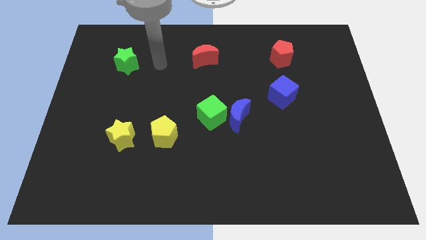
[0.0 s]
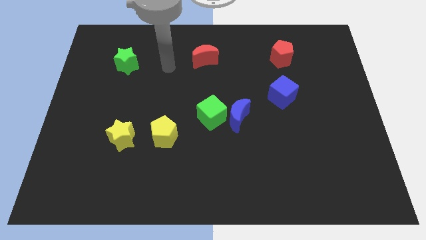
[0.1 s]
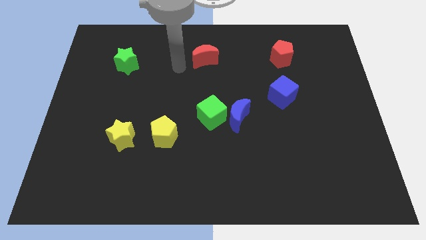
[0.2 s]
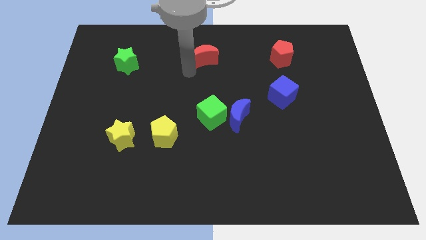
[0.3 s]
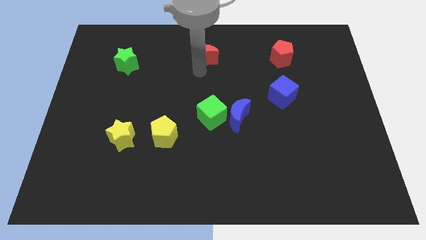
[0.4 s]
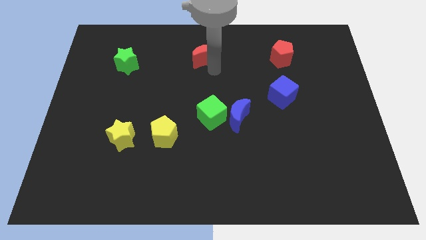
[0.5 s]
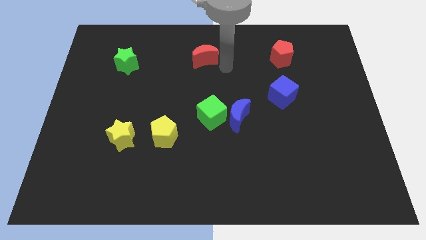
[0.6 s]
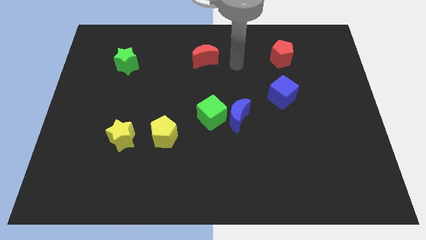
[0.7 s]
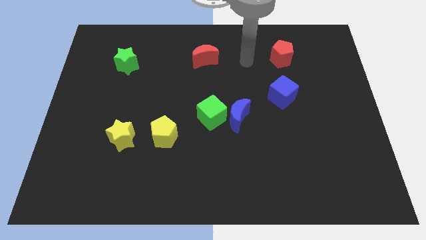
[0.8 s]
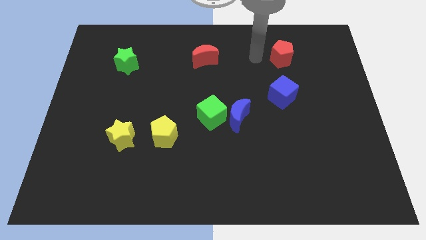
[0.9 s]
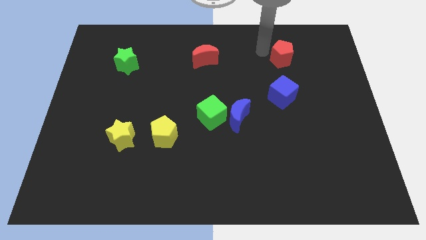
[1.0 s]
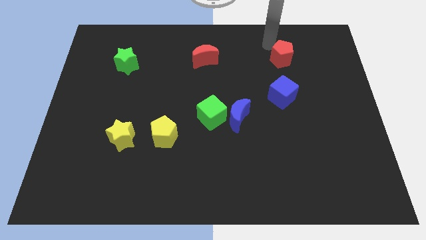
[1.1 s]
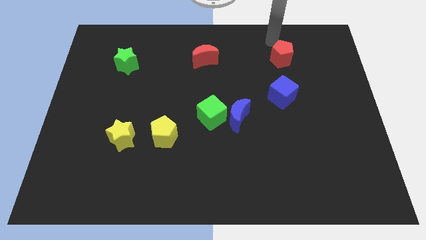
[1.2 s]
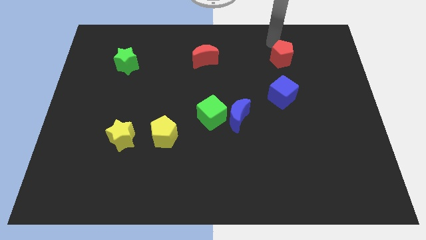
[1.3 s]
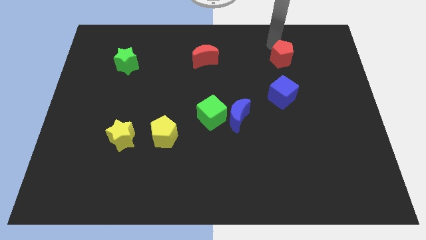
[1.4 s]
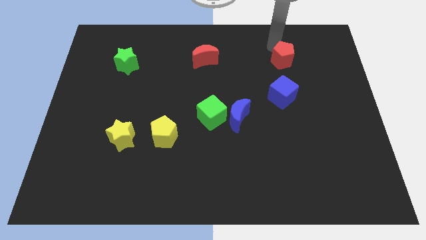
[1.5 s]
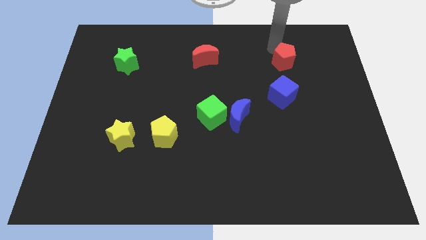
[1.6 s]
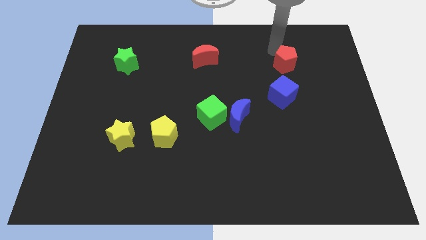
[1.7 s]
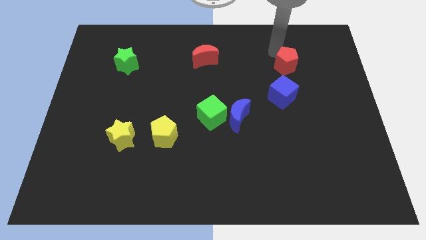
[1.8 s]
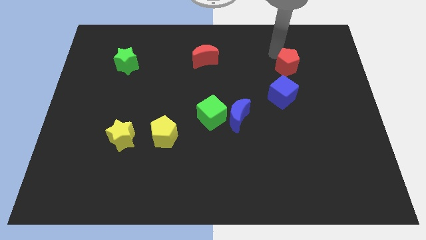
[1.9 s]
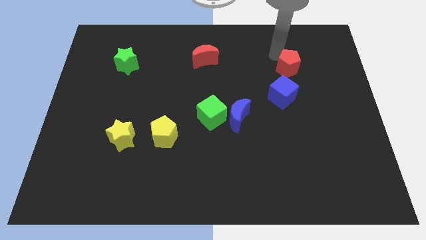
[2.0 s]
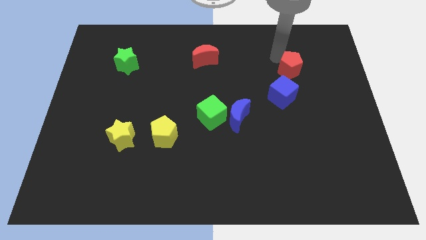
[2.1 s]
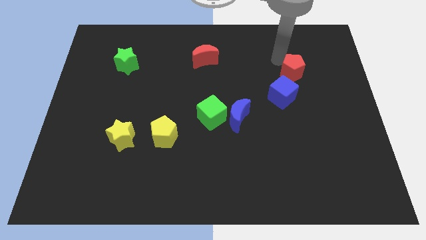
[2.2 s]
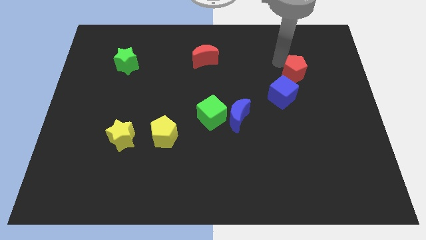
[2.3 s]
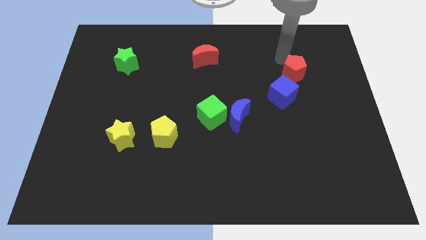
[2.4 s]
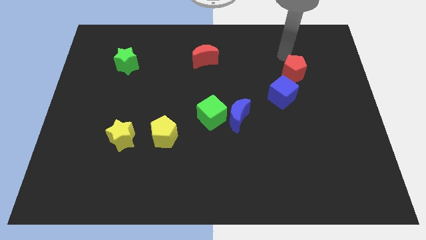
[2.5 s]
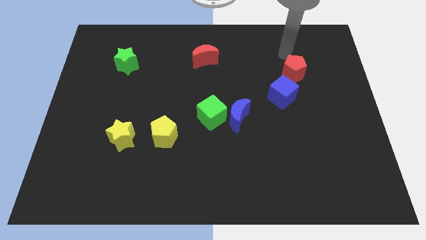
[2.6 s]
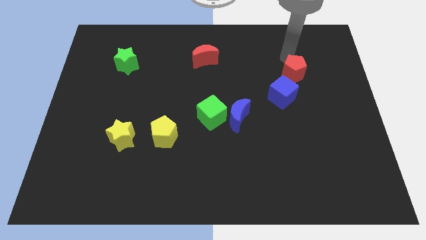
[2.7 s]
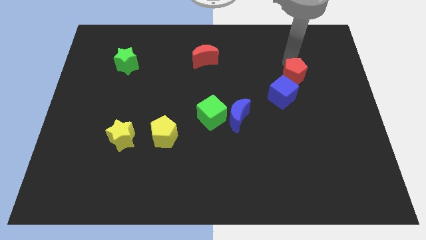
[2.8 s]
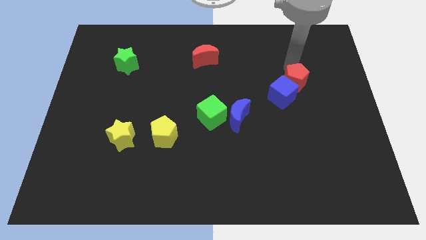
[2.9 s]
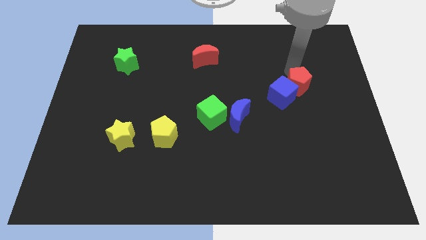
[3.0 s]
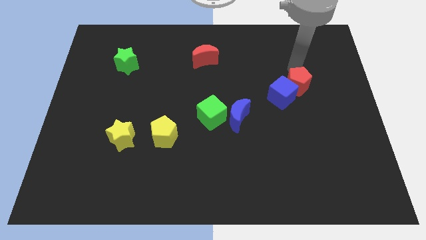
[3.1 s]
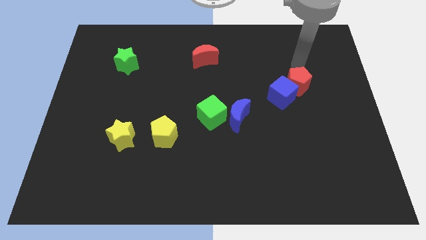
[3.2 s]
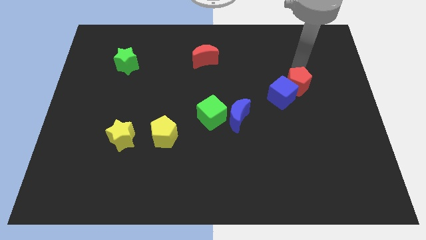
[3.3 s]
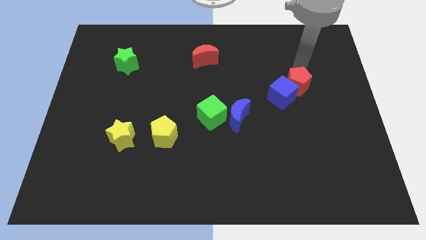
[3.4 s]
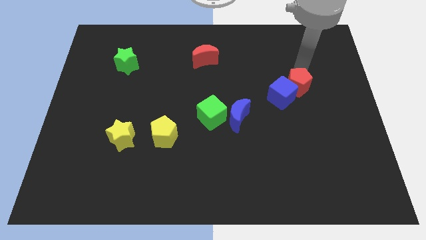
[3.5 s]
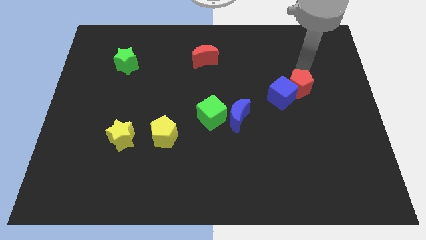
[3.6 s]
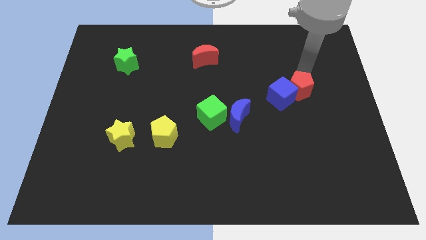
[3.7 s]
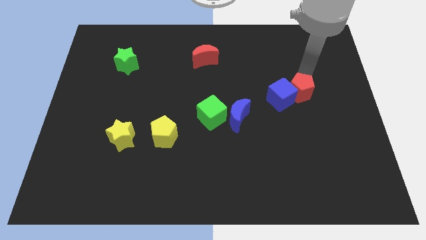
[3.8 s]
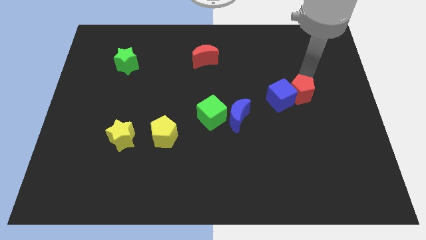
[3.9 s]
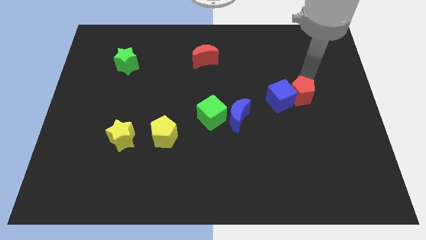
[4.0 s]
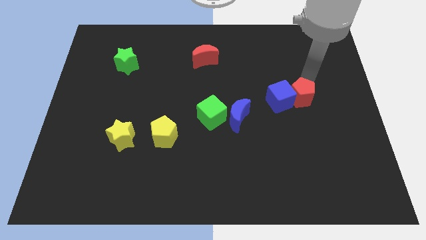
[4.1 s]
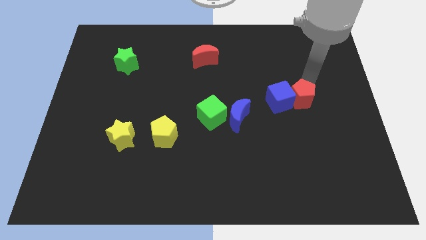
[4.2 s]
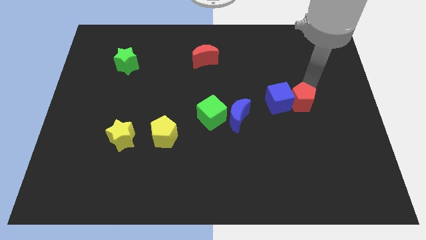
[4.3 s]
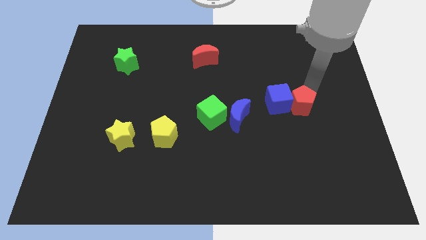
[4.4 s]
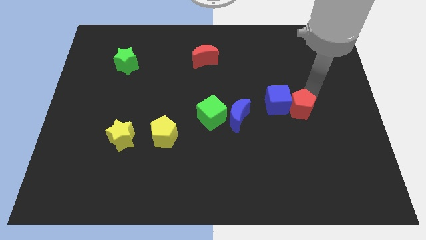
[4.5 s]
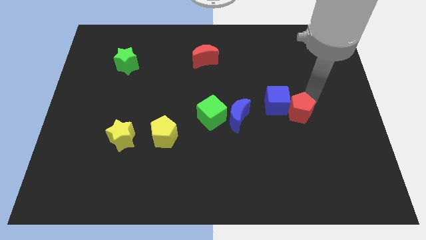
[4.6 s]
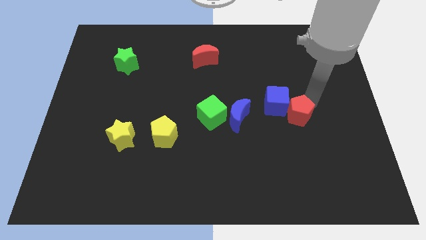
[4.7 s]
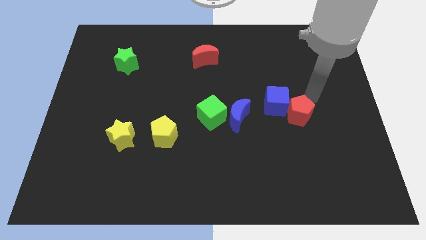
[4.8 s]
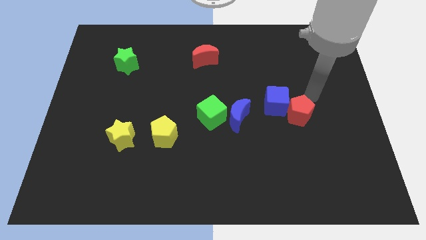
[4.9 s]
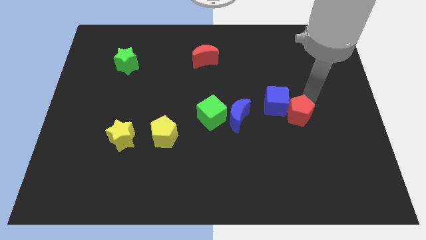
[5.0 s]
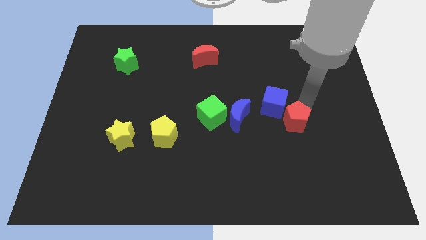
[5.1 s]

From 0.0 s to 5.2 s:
slide the red pentagon to the bottom side of the blue cube

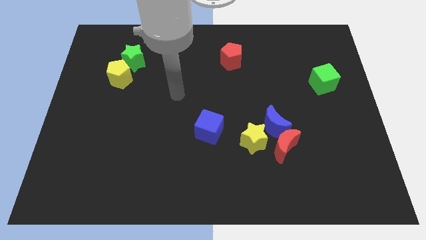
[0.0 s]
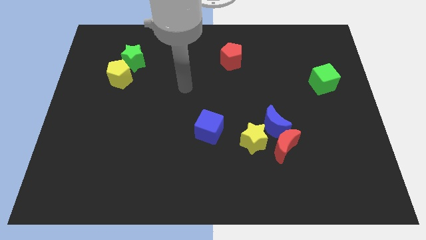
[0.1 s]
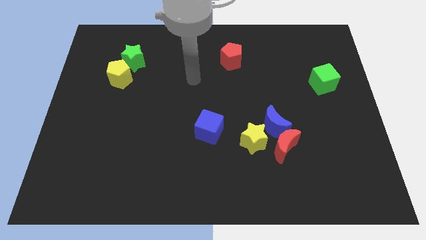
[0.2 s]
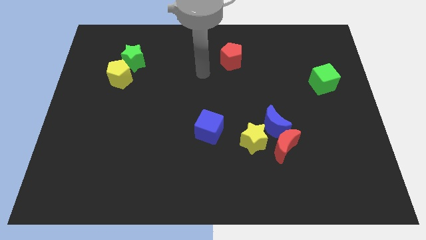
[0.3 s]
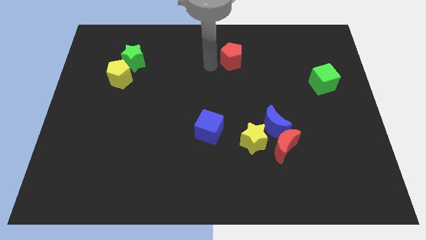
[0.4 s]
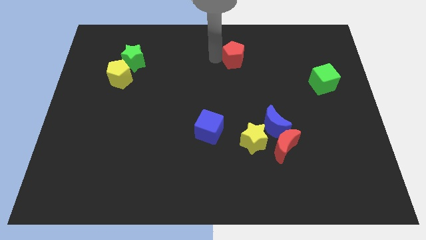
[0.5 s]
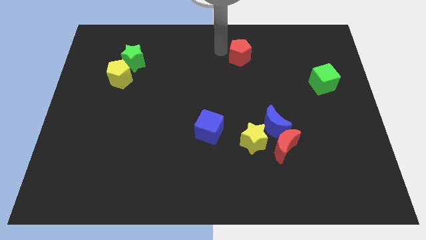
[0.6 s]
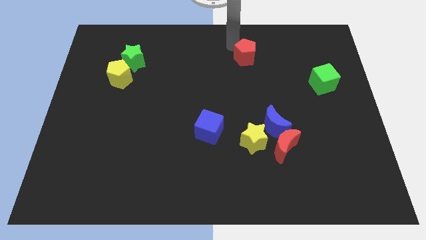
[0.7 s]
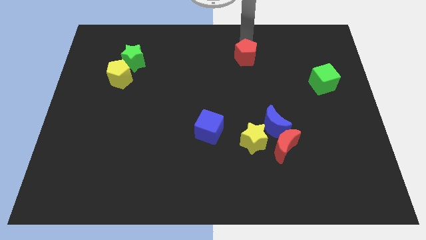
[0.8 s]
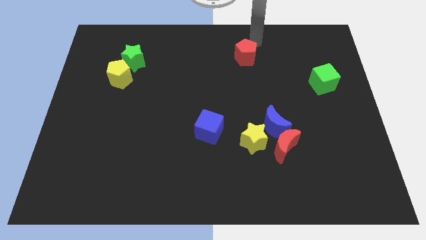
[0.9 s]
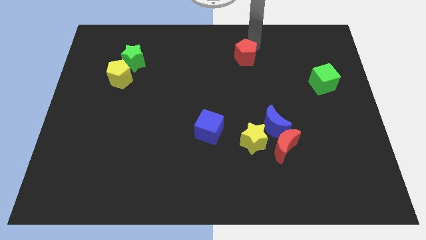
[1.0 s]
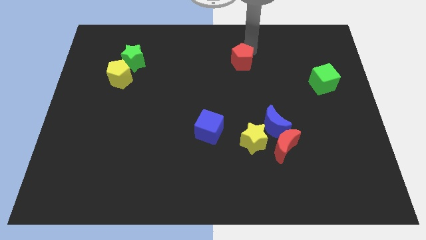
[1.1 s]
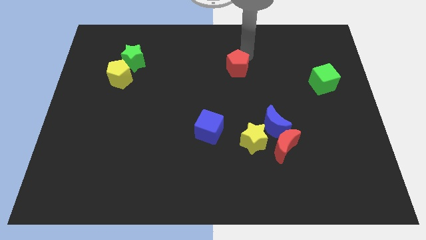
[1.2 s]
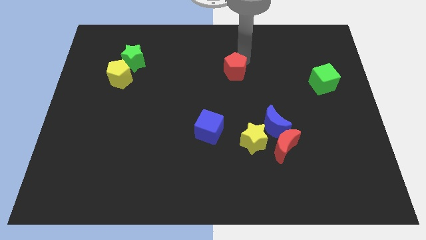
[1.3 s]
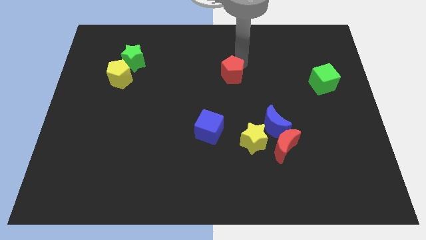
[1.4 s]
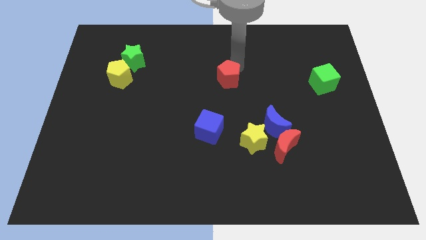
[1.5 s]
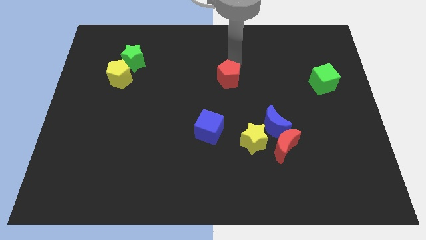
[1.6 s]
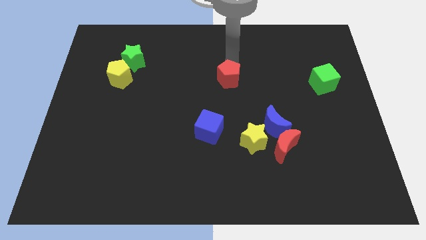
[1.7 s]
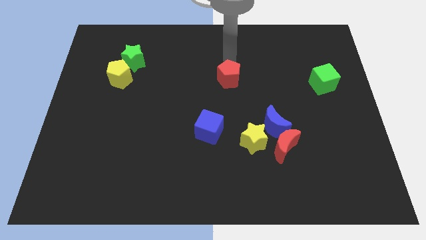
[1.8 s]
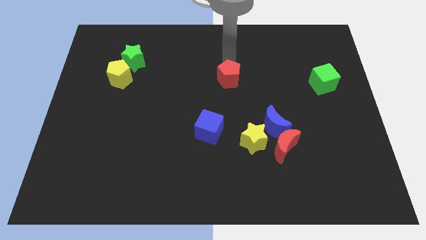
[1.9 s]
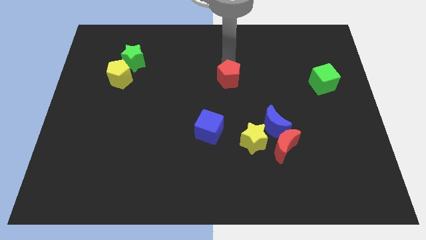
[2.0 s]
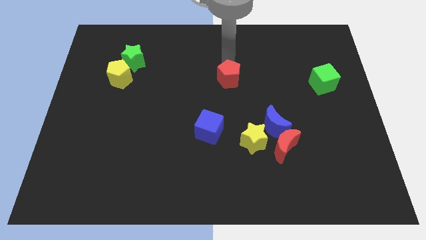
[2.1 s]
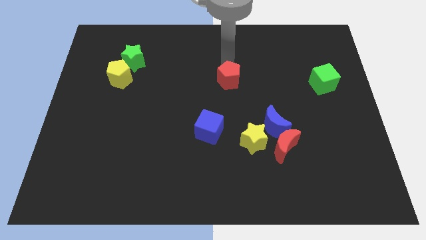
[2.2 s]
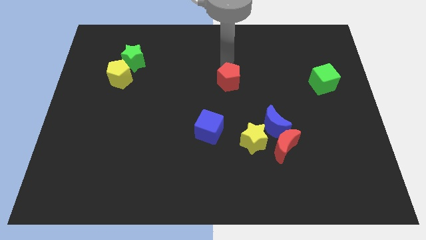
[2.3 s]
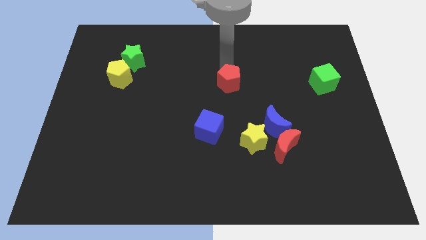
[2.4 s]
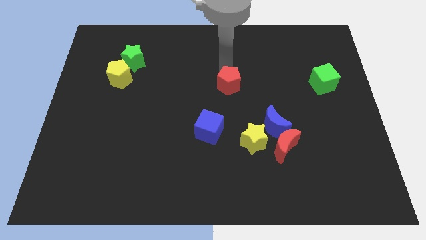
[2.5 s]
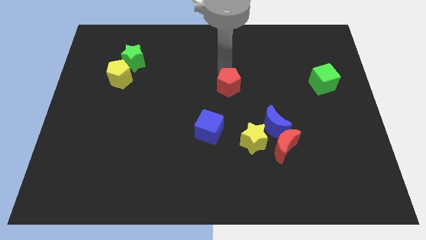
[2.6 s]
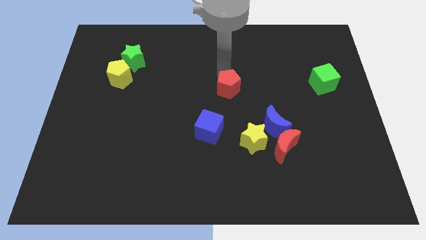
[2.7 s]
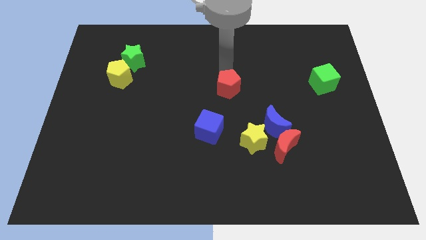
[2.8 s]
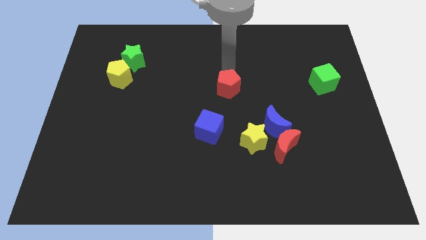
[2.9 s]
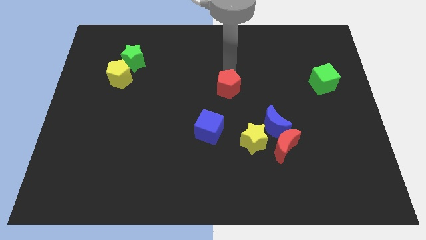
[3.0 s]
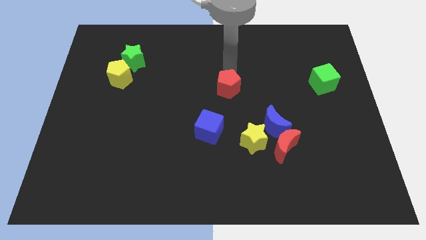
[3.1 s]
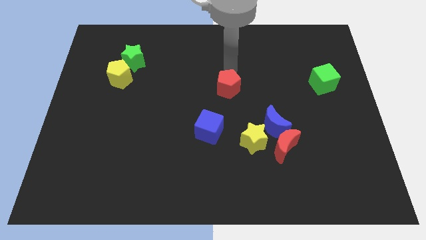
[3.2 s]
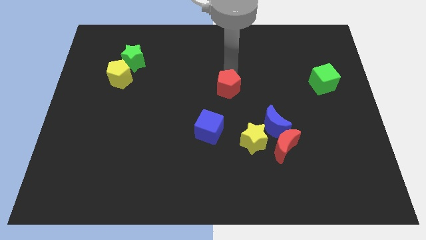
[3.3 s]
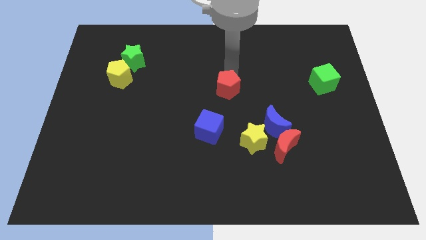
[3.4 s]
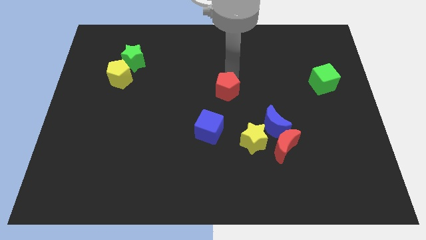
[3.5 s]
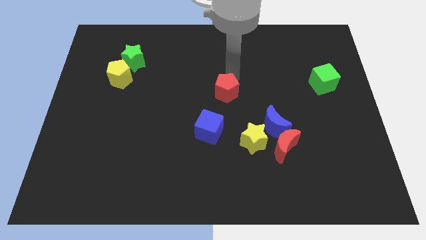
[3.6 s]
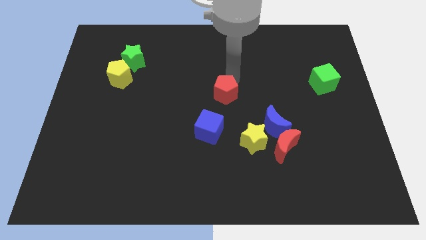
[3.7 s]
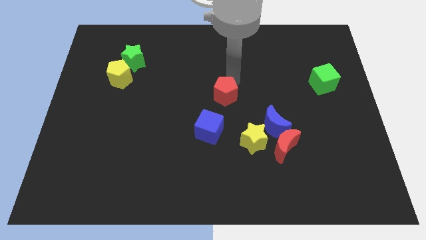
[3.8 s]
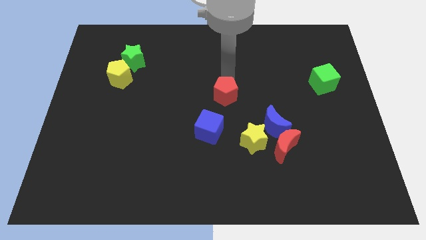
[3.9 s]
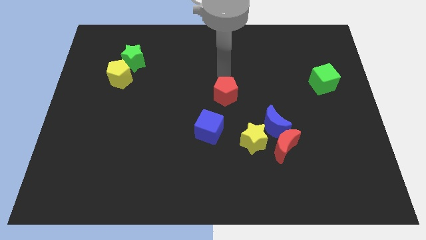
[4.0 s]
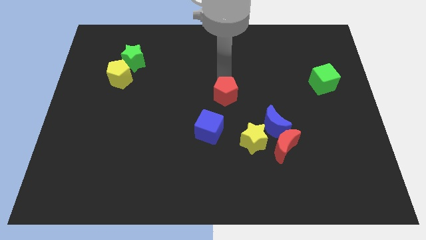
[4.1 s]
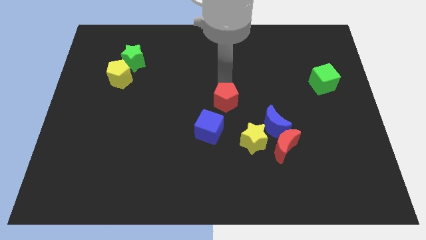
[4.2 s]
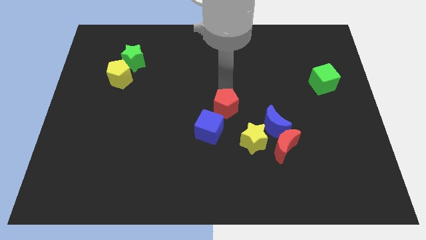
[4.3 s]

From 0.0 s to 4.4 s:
push the red pentagon to the top left of the yellow star
